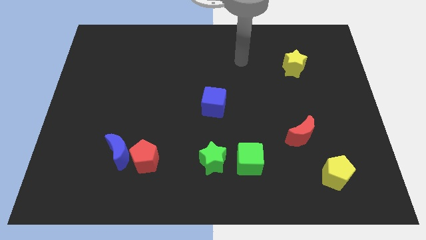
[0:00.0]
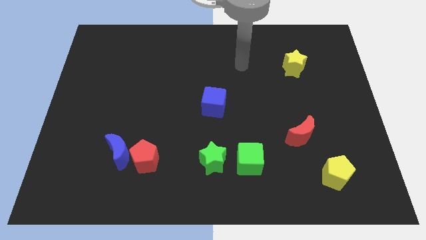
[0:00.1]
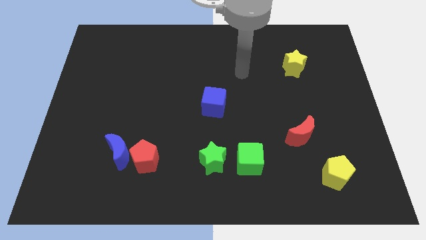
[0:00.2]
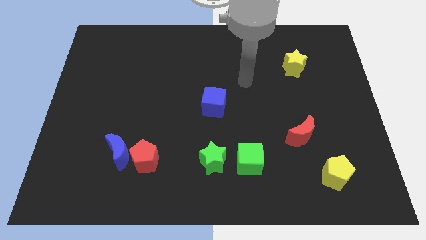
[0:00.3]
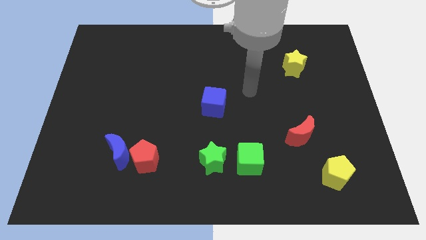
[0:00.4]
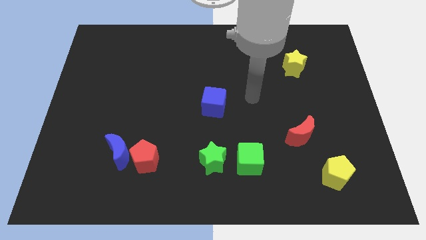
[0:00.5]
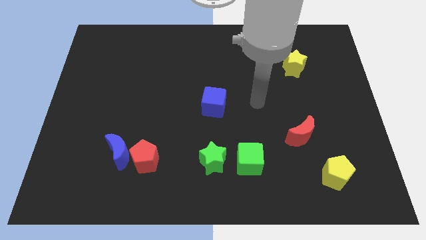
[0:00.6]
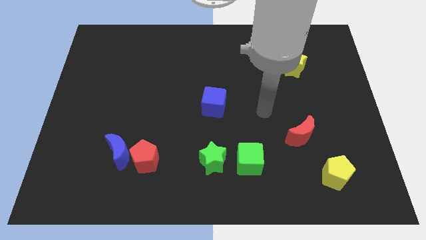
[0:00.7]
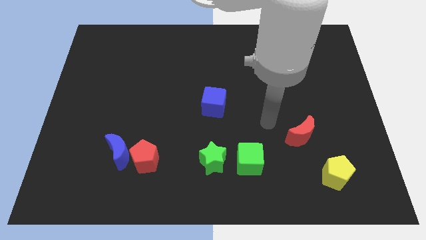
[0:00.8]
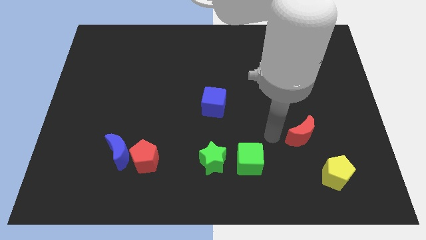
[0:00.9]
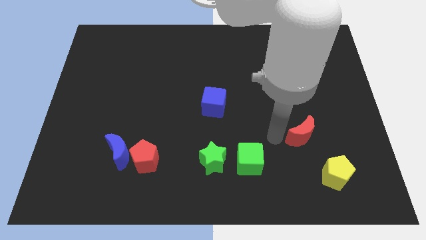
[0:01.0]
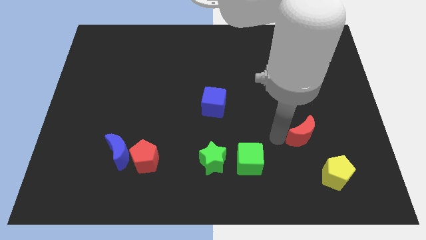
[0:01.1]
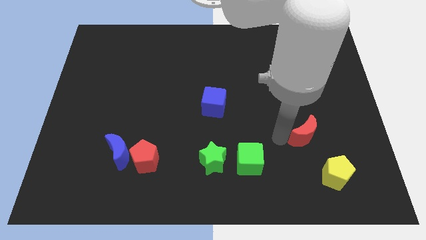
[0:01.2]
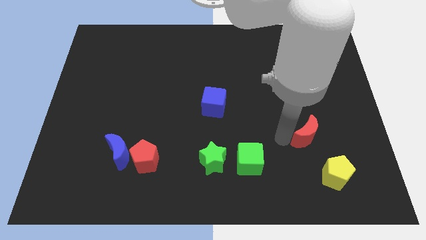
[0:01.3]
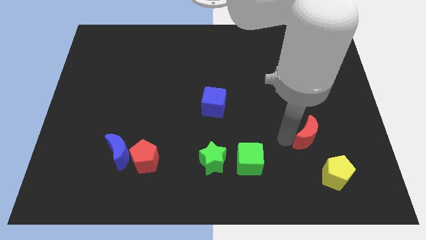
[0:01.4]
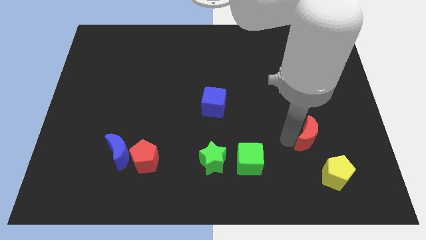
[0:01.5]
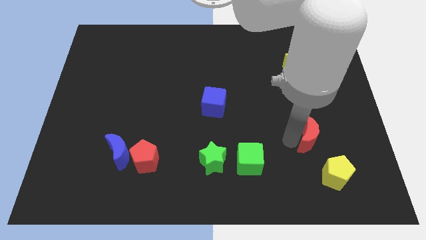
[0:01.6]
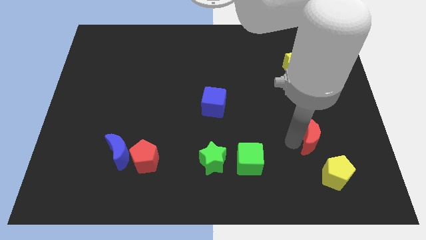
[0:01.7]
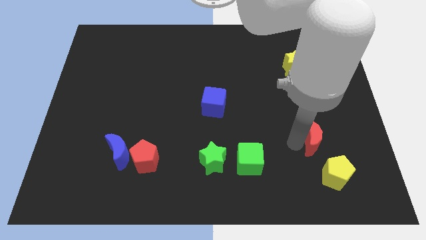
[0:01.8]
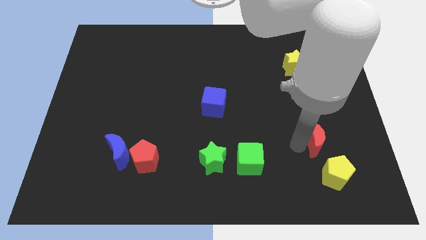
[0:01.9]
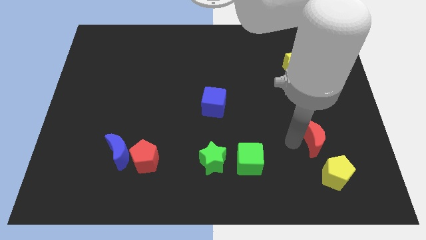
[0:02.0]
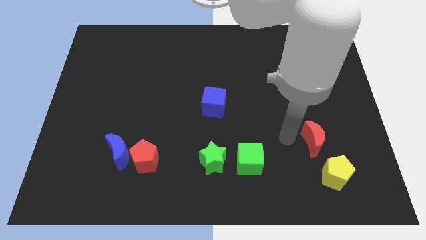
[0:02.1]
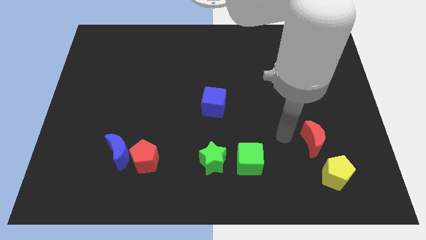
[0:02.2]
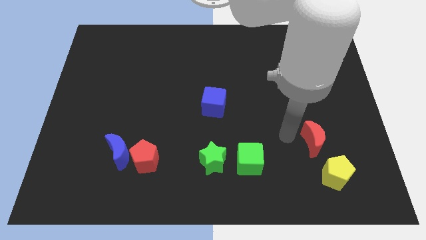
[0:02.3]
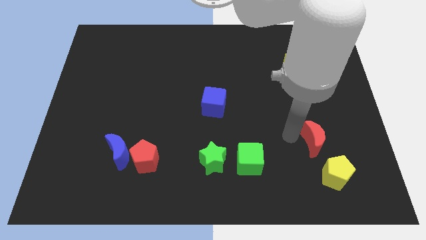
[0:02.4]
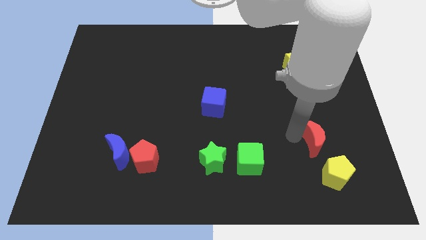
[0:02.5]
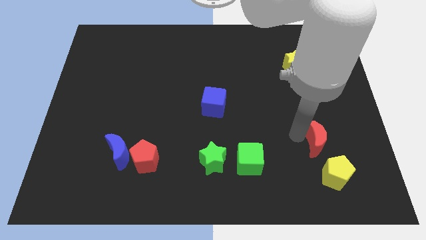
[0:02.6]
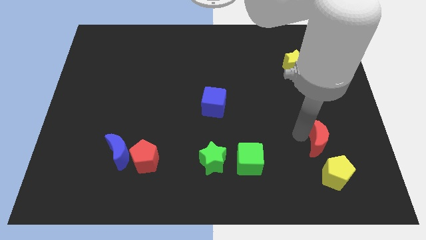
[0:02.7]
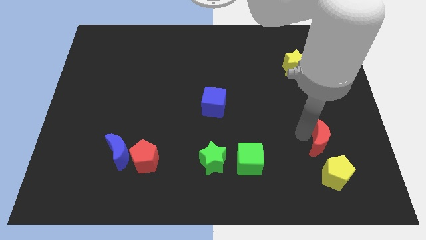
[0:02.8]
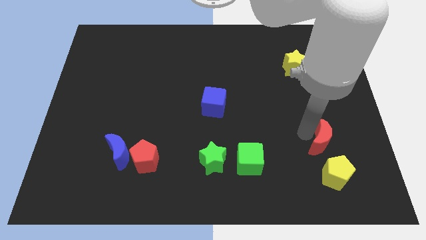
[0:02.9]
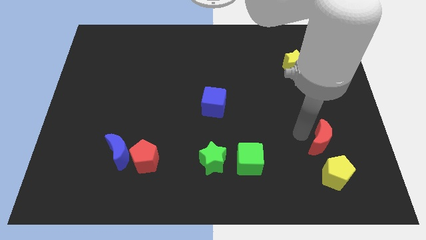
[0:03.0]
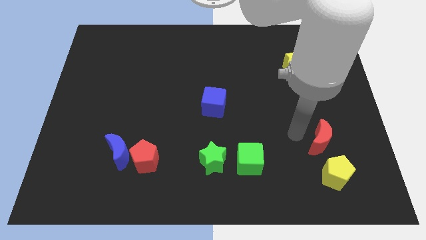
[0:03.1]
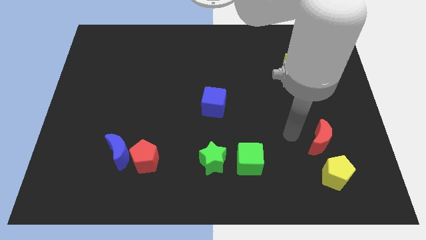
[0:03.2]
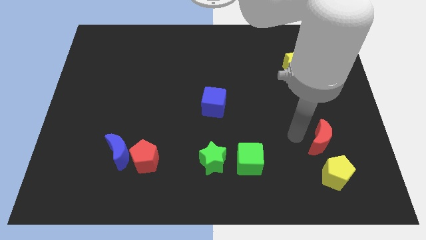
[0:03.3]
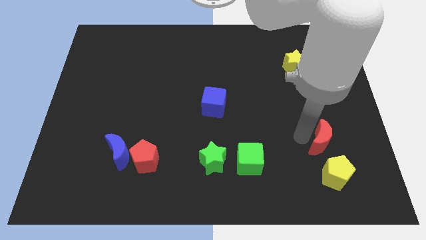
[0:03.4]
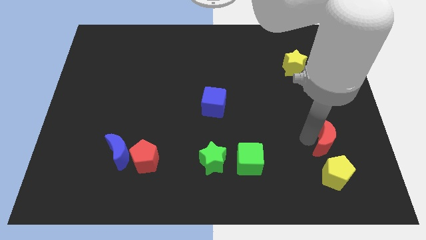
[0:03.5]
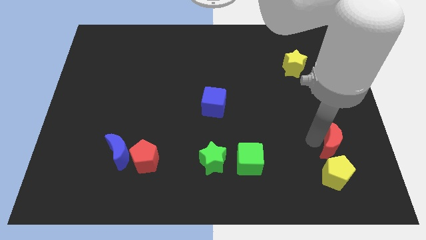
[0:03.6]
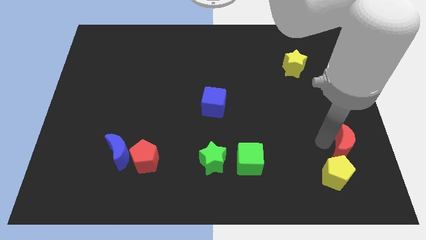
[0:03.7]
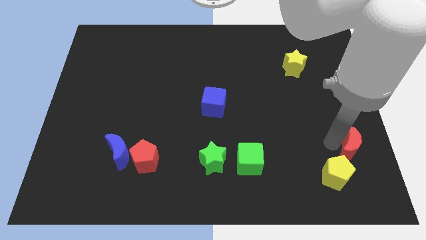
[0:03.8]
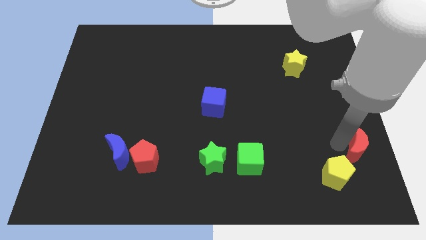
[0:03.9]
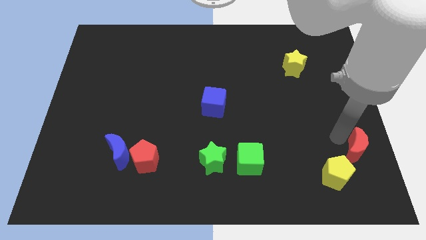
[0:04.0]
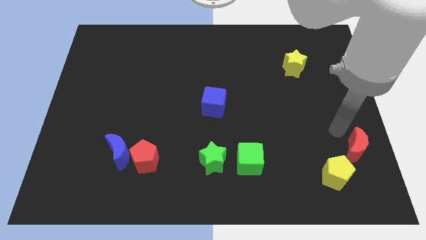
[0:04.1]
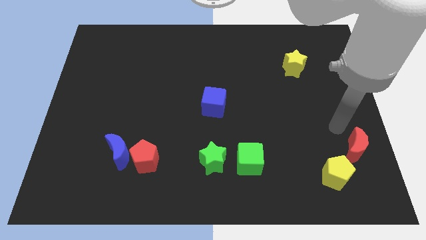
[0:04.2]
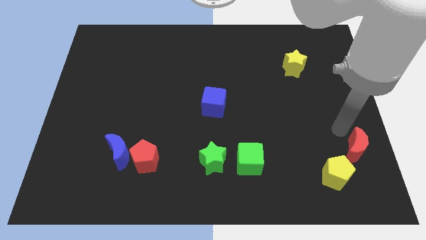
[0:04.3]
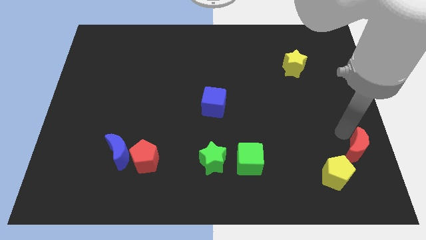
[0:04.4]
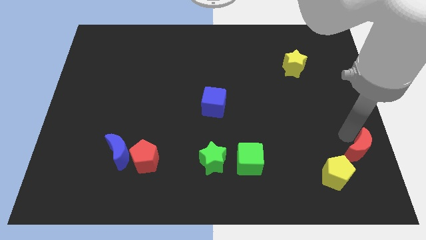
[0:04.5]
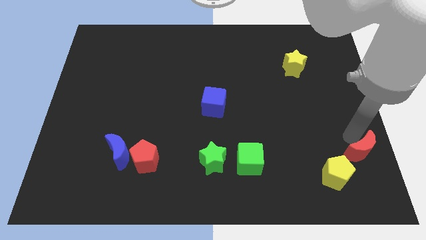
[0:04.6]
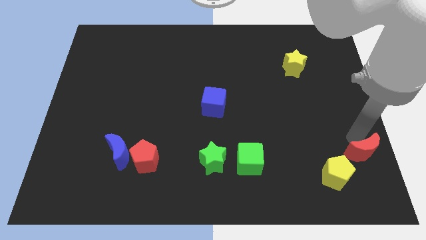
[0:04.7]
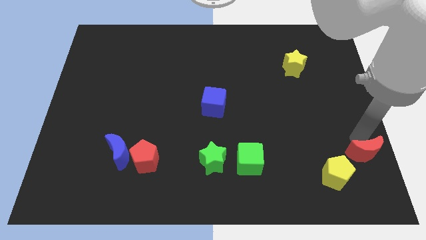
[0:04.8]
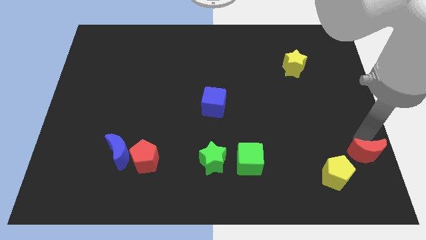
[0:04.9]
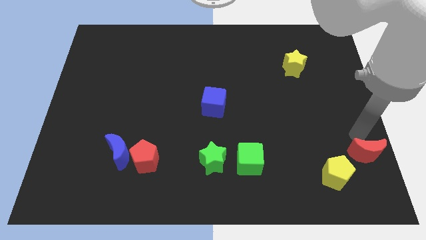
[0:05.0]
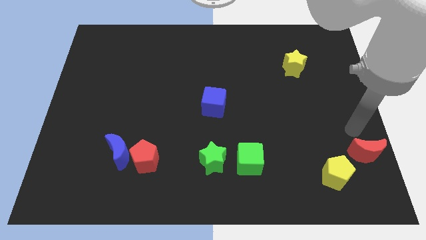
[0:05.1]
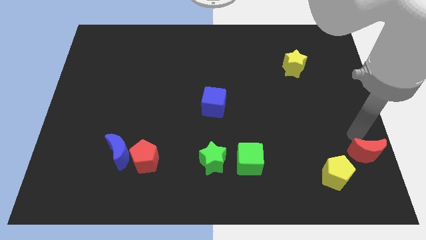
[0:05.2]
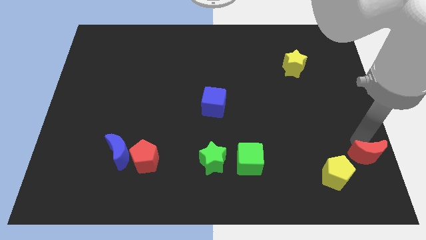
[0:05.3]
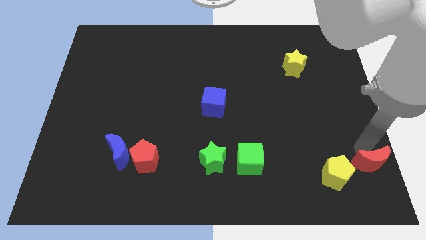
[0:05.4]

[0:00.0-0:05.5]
move the red moon to the bottom right corner

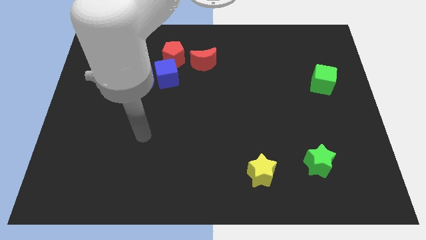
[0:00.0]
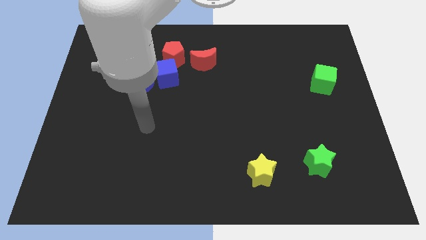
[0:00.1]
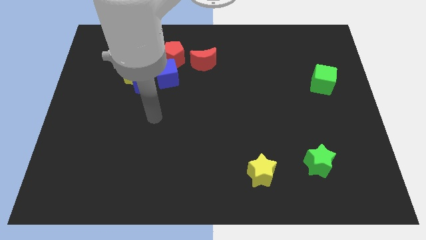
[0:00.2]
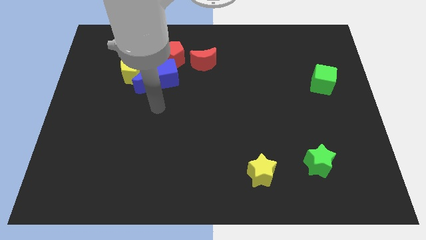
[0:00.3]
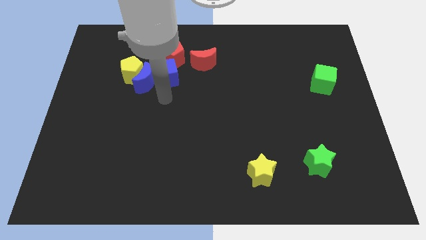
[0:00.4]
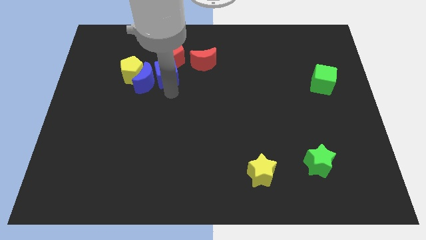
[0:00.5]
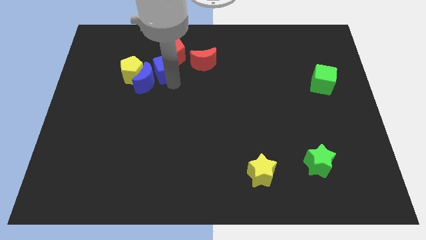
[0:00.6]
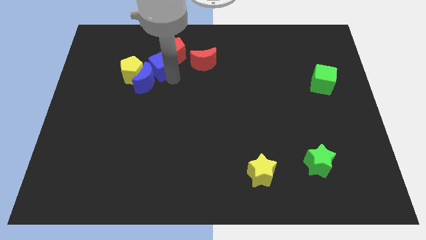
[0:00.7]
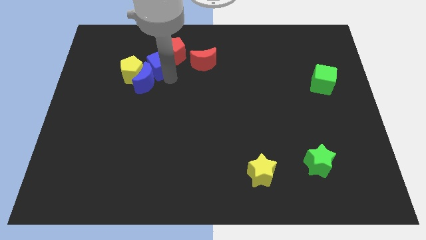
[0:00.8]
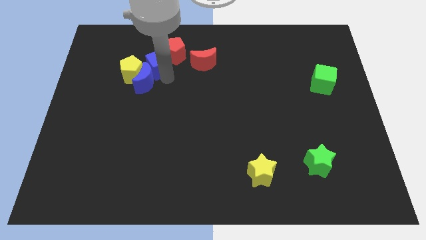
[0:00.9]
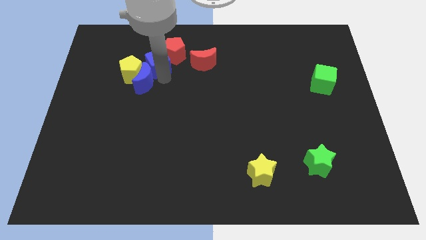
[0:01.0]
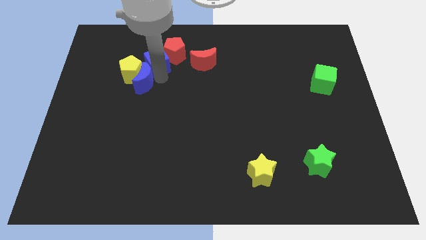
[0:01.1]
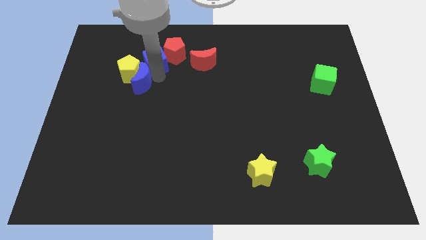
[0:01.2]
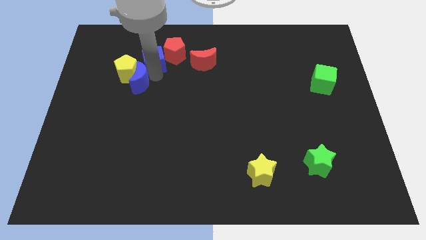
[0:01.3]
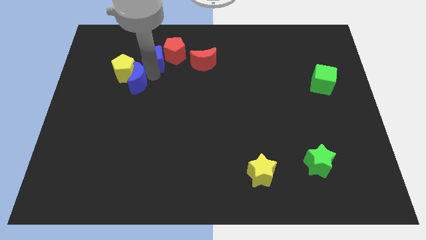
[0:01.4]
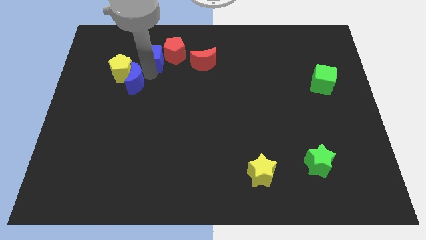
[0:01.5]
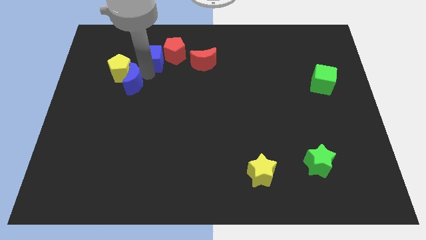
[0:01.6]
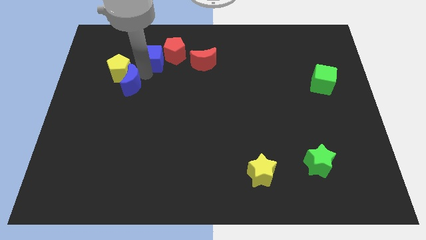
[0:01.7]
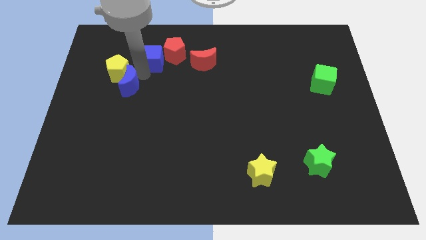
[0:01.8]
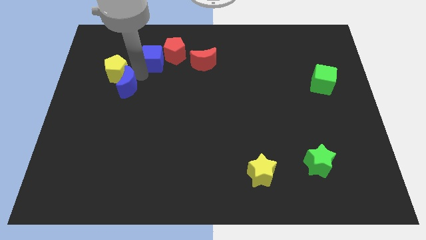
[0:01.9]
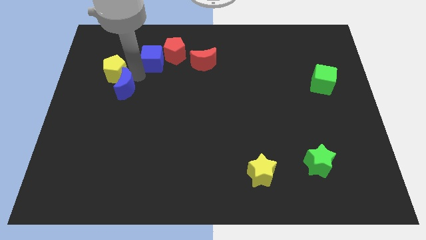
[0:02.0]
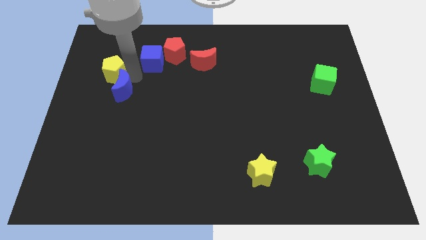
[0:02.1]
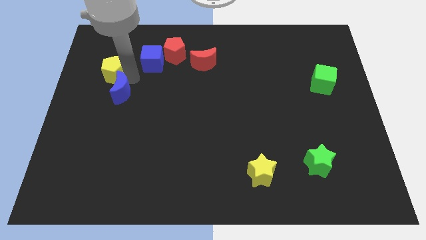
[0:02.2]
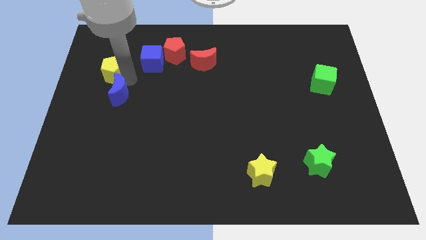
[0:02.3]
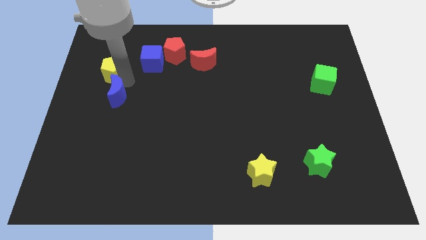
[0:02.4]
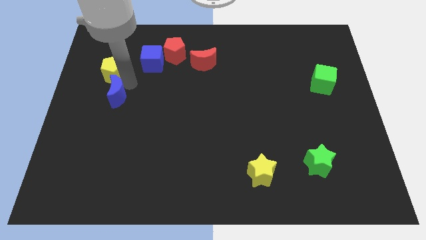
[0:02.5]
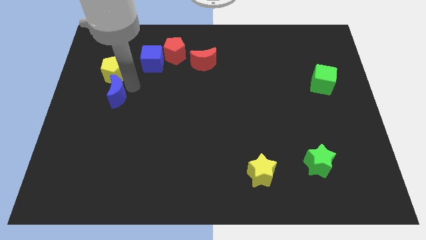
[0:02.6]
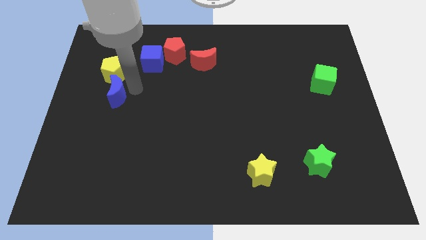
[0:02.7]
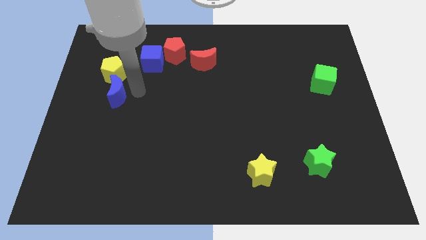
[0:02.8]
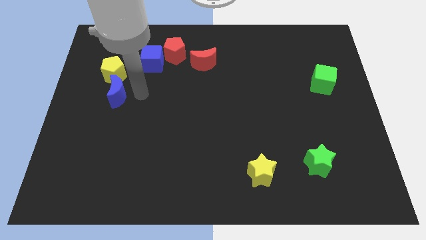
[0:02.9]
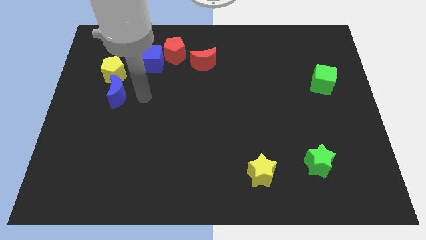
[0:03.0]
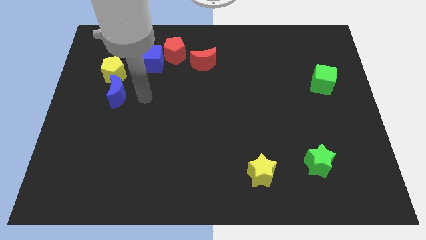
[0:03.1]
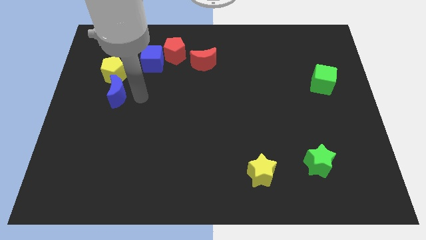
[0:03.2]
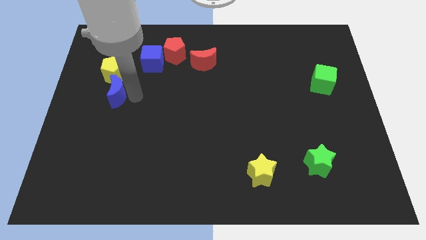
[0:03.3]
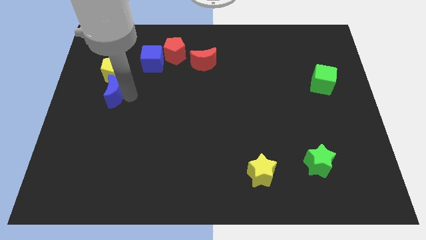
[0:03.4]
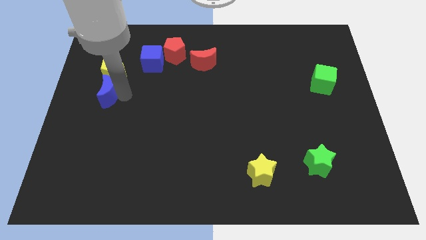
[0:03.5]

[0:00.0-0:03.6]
push the blue moon to the center left
